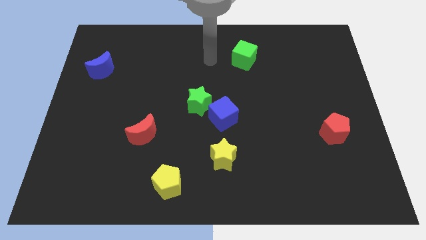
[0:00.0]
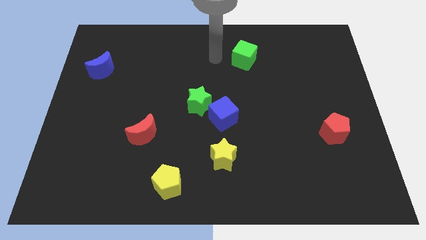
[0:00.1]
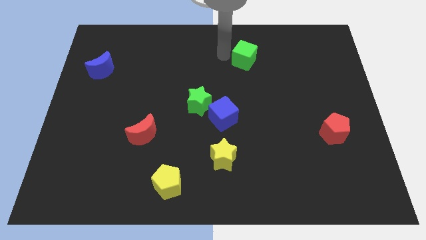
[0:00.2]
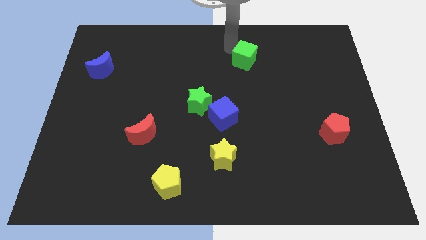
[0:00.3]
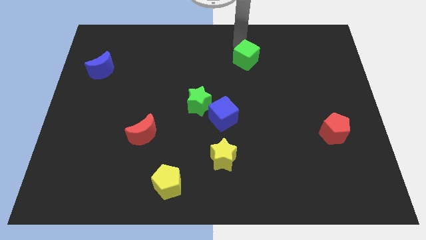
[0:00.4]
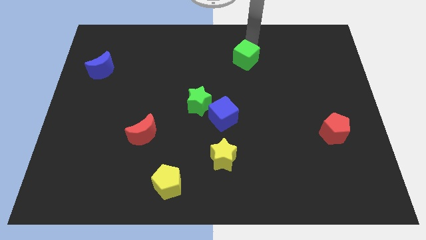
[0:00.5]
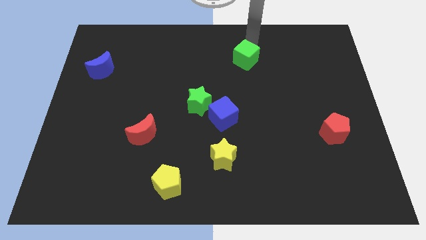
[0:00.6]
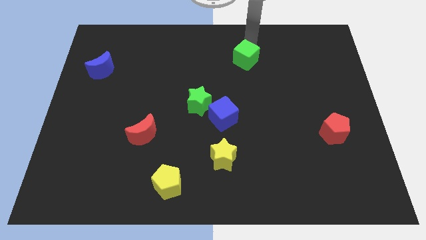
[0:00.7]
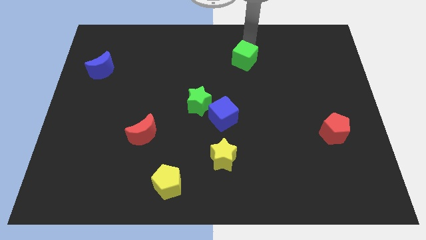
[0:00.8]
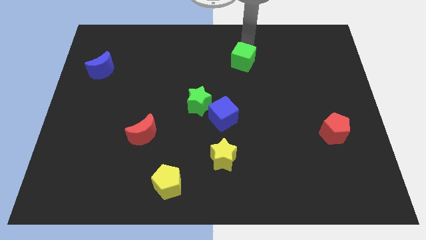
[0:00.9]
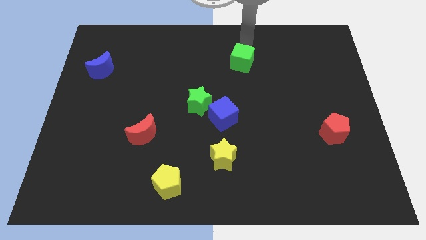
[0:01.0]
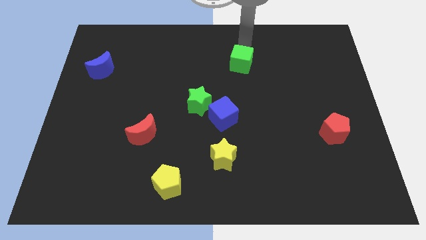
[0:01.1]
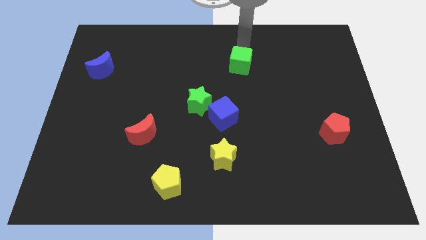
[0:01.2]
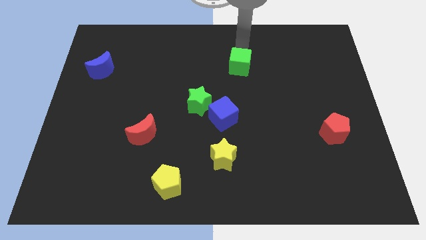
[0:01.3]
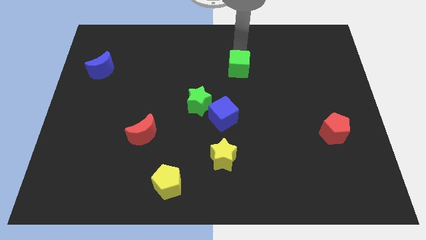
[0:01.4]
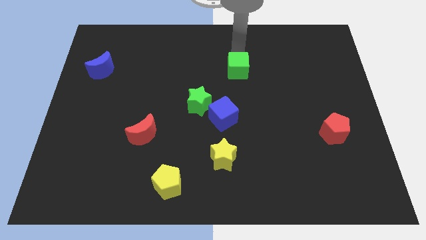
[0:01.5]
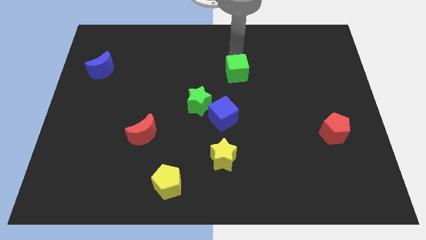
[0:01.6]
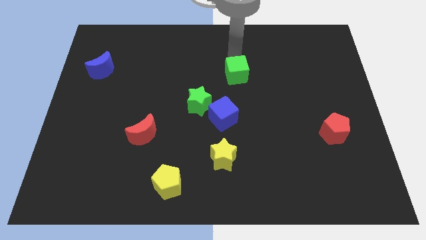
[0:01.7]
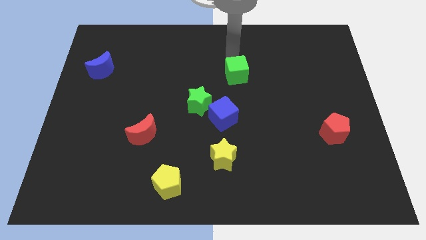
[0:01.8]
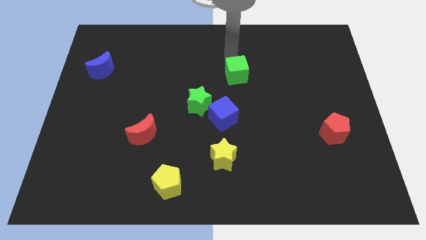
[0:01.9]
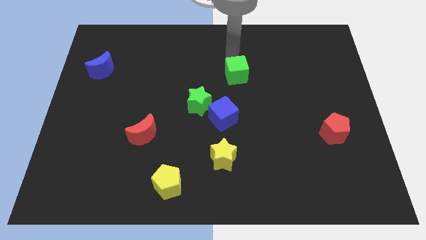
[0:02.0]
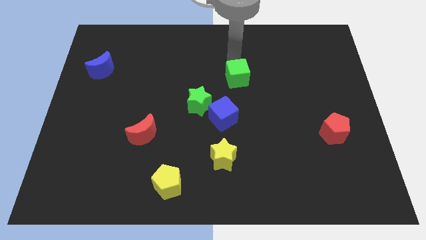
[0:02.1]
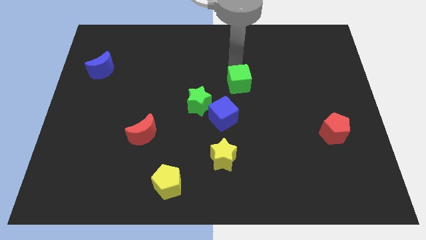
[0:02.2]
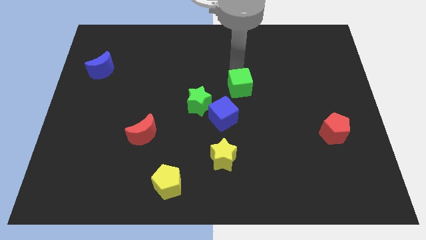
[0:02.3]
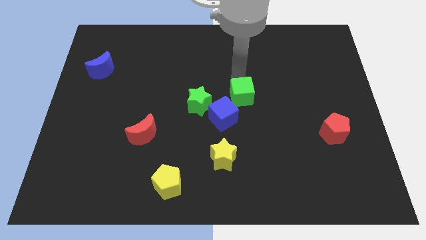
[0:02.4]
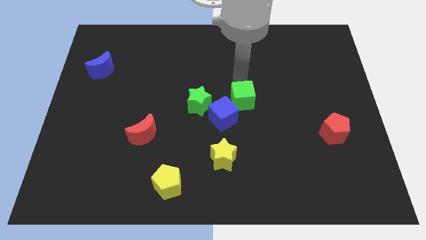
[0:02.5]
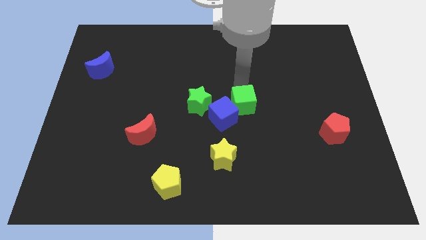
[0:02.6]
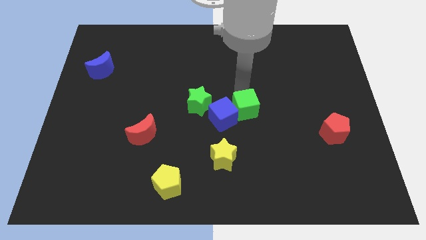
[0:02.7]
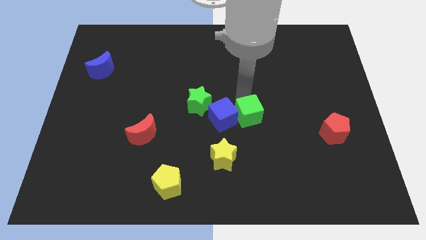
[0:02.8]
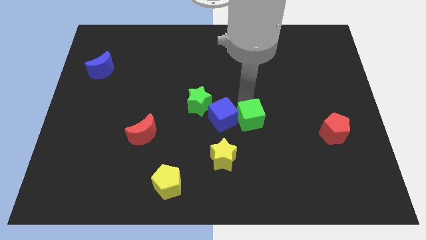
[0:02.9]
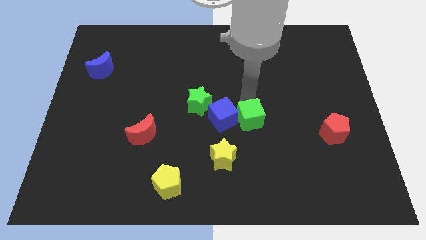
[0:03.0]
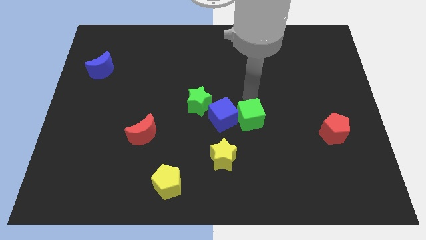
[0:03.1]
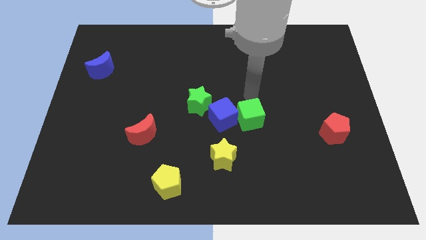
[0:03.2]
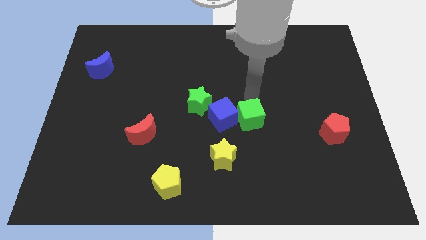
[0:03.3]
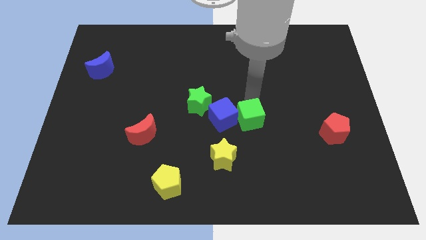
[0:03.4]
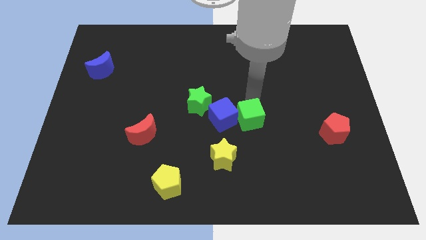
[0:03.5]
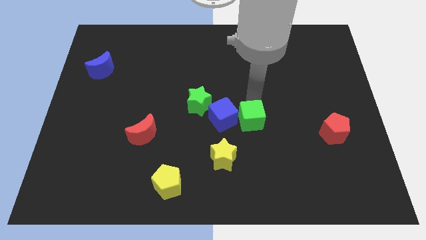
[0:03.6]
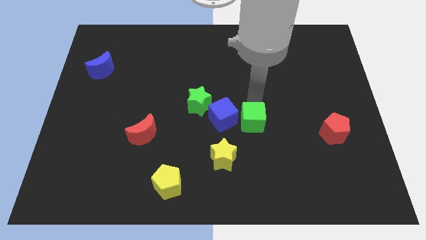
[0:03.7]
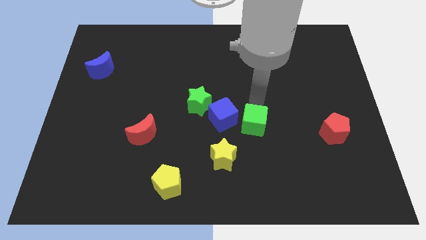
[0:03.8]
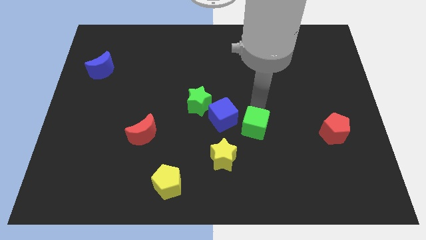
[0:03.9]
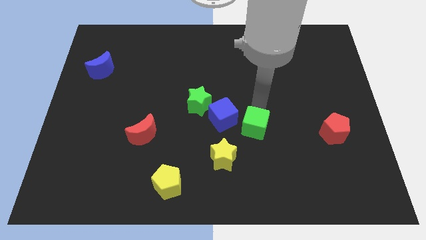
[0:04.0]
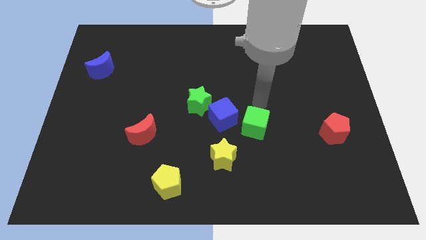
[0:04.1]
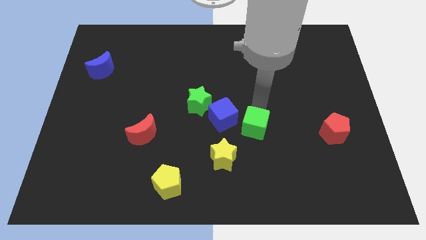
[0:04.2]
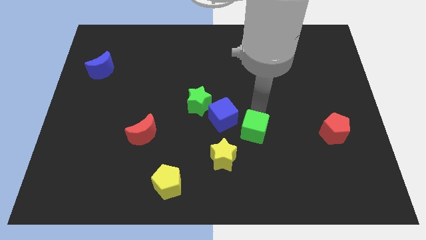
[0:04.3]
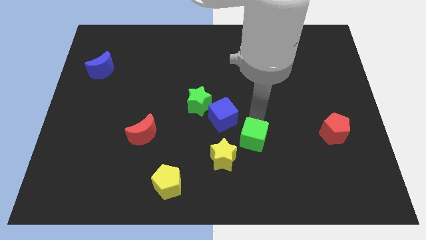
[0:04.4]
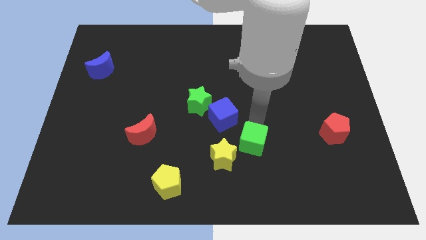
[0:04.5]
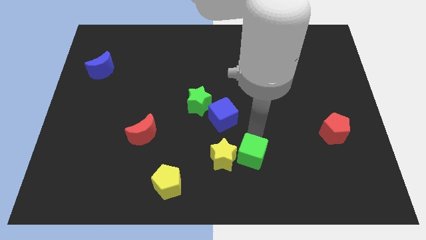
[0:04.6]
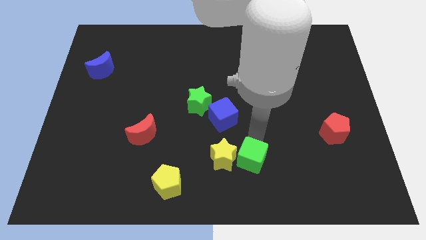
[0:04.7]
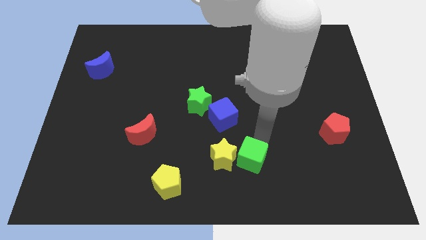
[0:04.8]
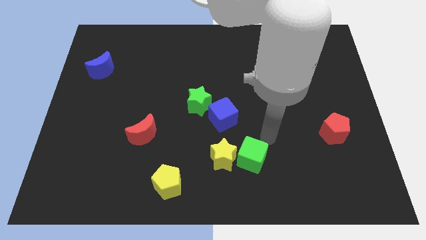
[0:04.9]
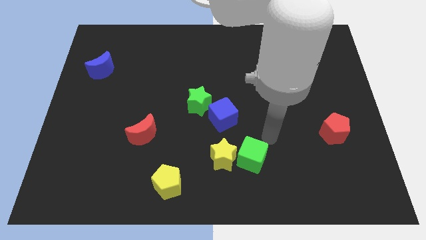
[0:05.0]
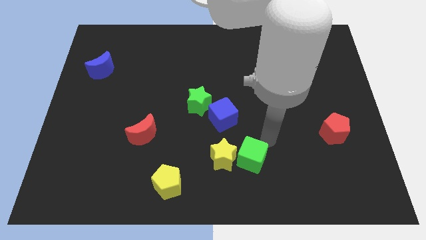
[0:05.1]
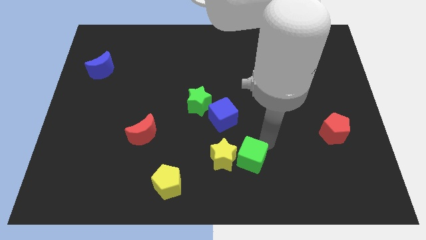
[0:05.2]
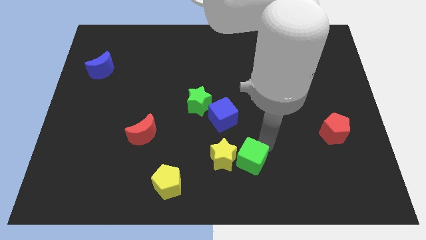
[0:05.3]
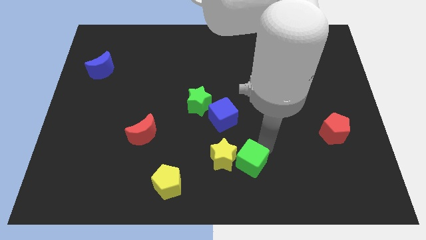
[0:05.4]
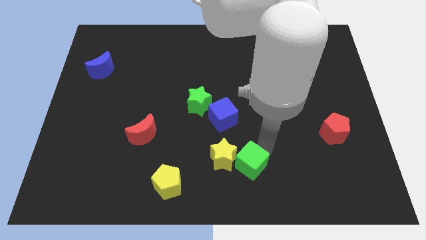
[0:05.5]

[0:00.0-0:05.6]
push the green cube to the bottom side
